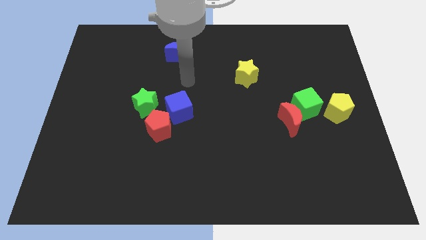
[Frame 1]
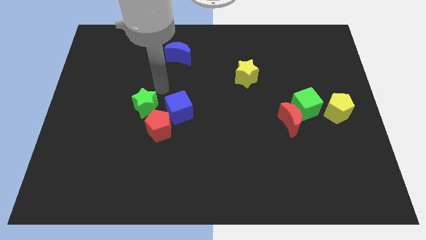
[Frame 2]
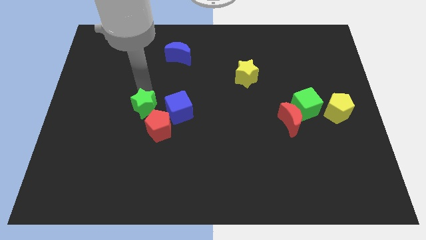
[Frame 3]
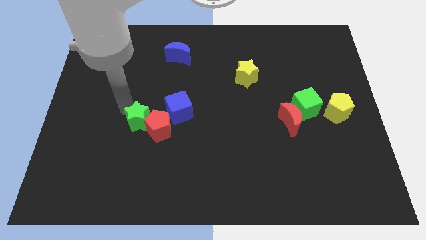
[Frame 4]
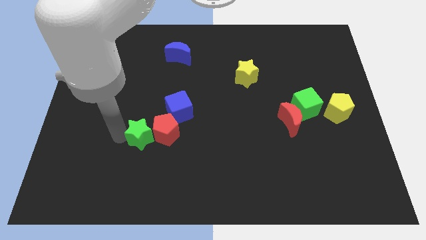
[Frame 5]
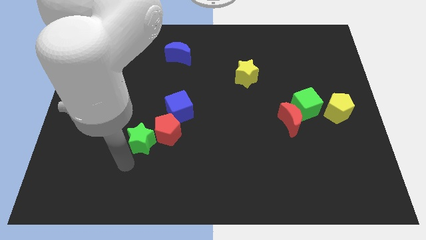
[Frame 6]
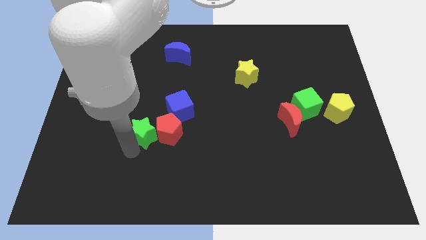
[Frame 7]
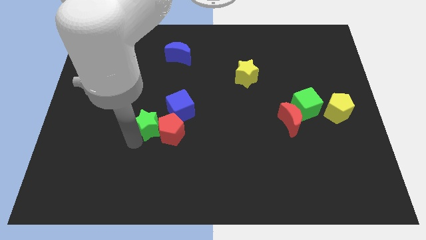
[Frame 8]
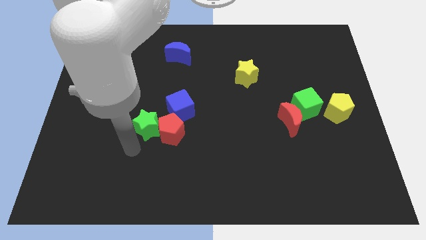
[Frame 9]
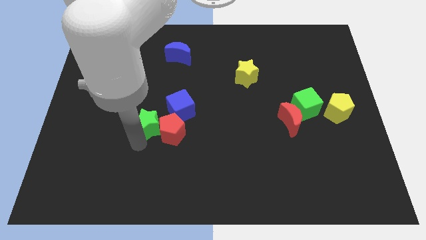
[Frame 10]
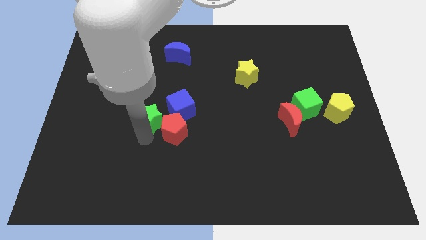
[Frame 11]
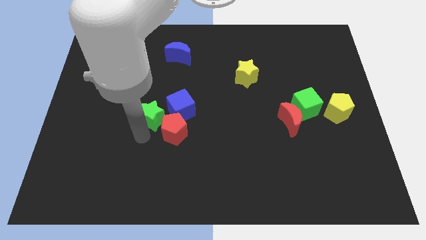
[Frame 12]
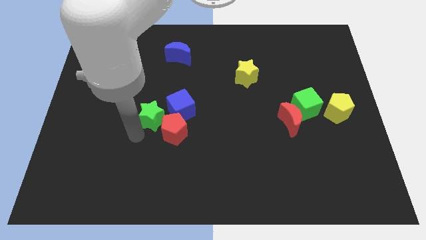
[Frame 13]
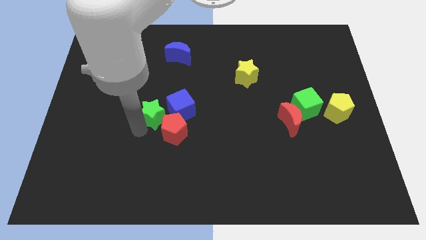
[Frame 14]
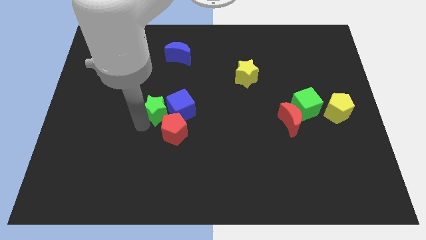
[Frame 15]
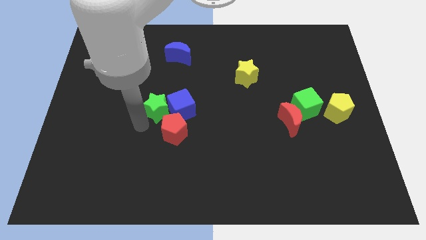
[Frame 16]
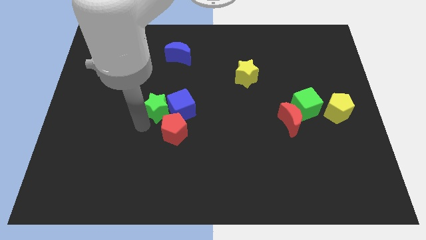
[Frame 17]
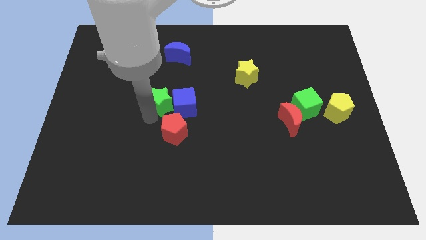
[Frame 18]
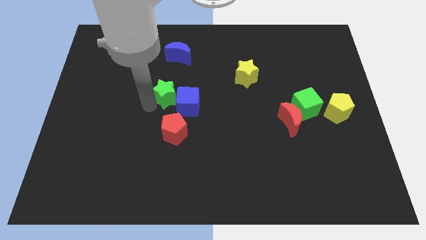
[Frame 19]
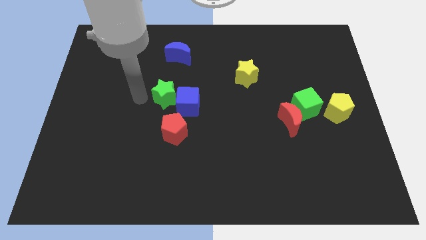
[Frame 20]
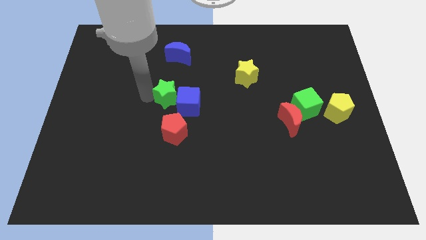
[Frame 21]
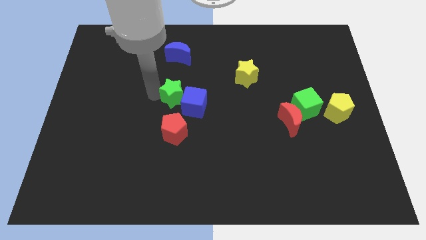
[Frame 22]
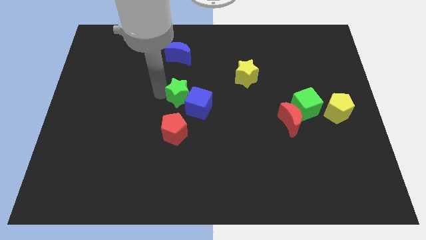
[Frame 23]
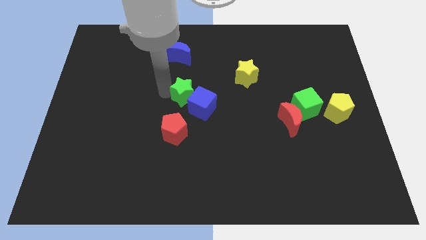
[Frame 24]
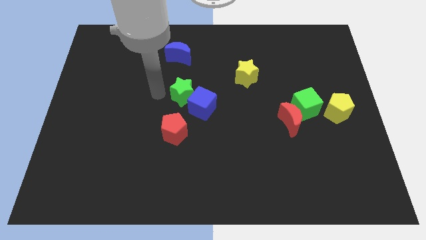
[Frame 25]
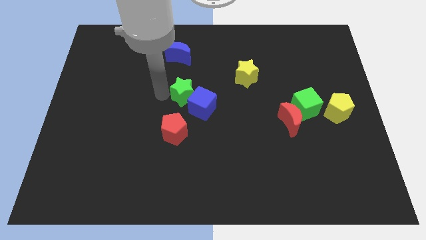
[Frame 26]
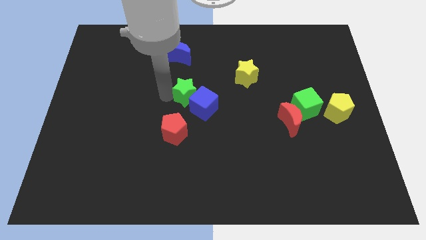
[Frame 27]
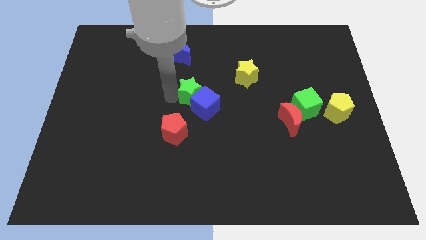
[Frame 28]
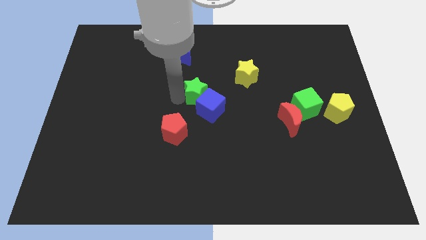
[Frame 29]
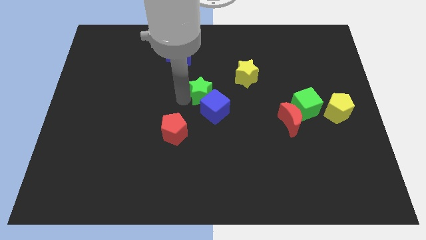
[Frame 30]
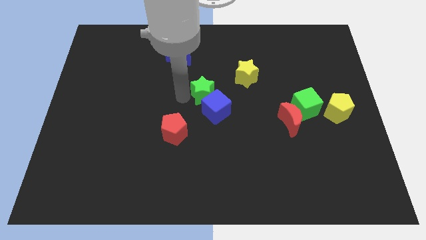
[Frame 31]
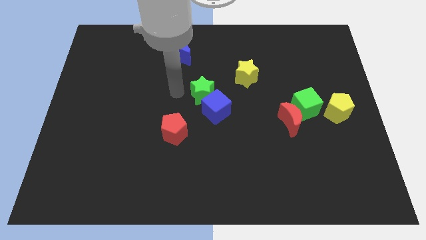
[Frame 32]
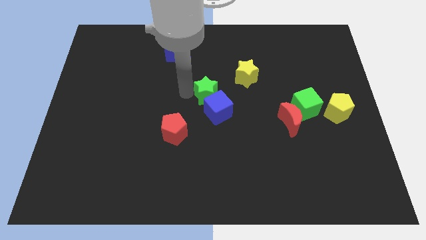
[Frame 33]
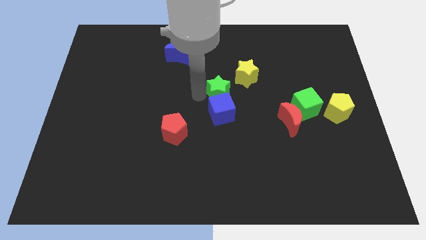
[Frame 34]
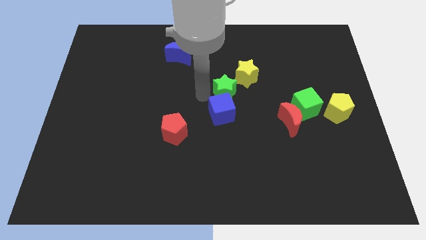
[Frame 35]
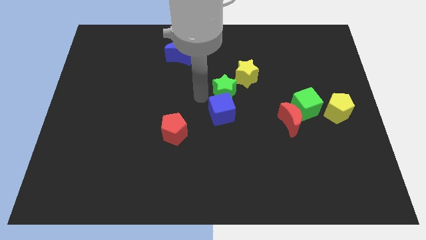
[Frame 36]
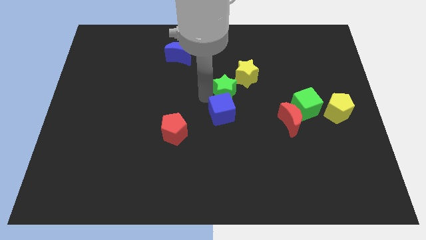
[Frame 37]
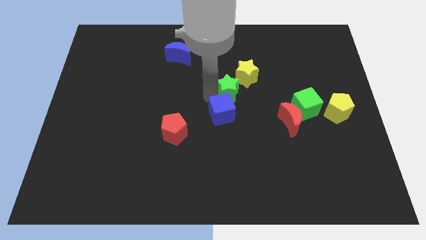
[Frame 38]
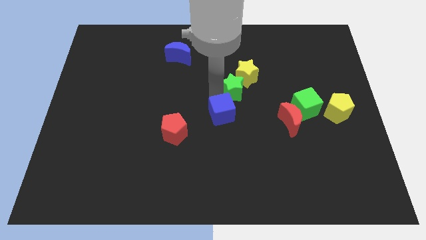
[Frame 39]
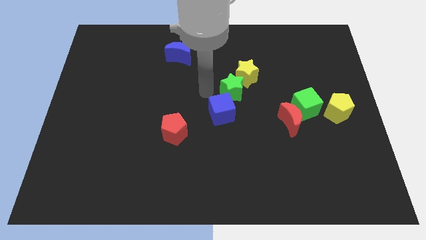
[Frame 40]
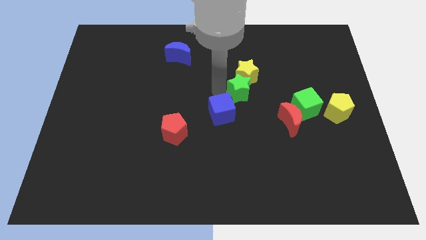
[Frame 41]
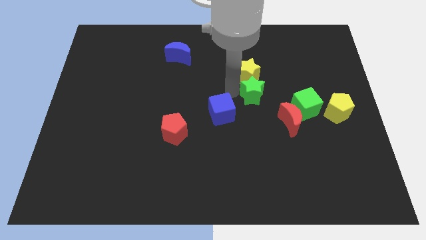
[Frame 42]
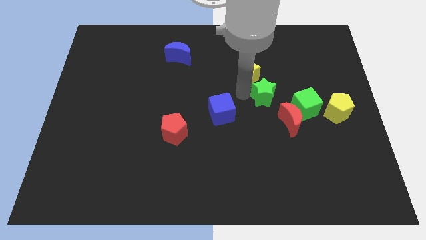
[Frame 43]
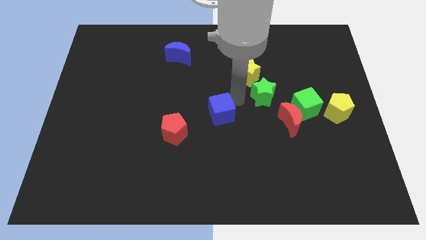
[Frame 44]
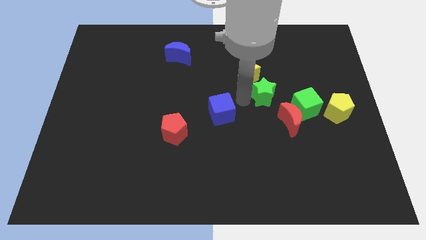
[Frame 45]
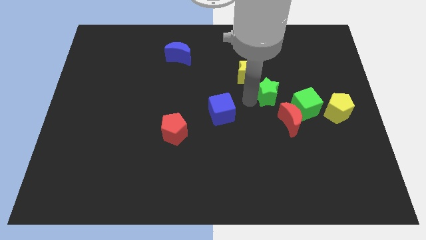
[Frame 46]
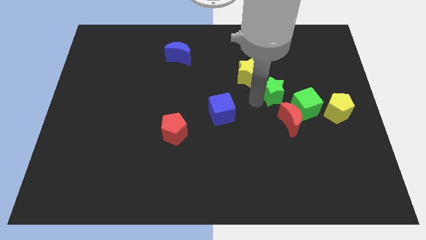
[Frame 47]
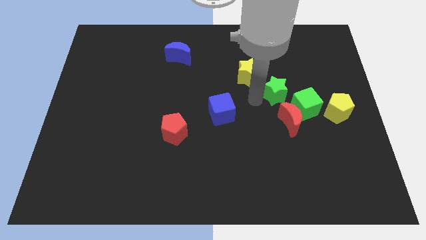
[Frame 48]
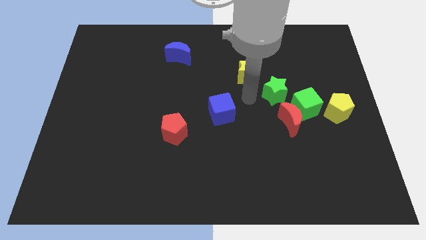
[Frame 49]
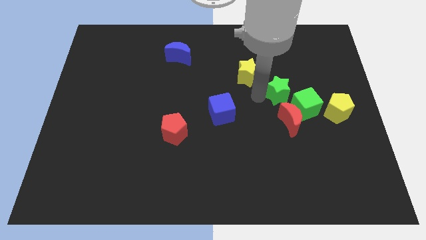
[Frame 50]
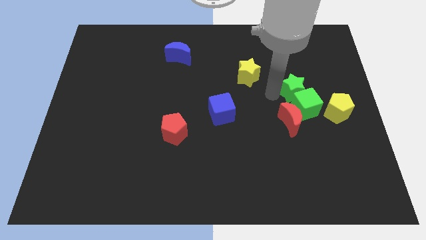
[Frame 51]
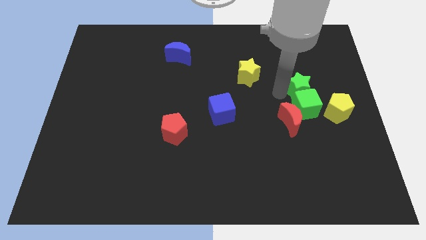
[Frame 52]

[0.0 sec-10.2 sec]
put the green star diagonally up and to the right of the red moon
